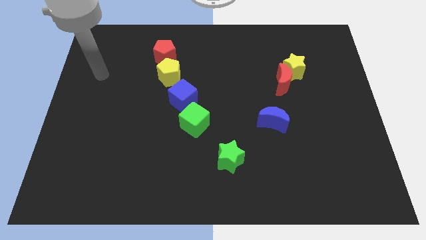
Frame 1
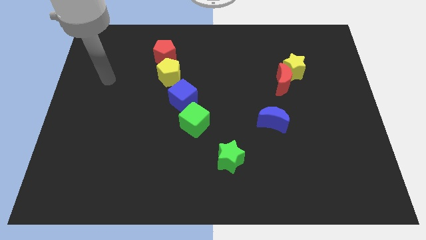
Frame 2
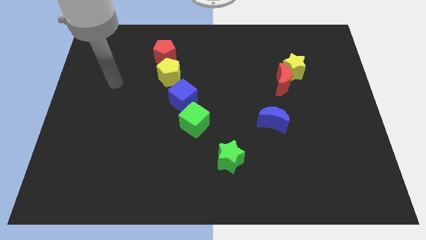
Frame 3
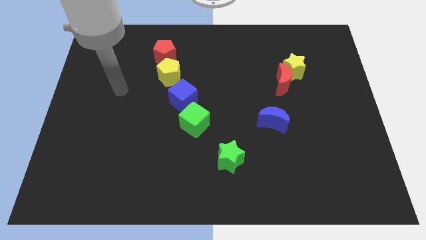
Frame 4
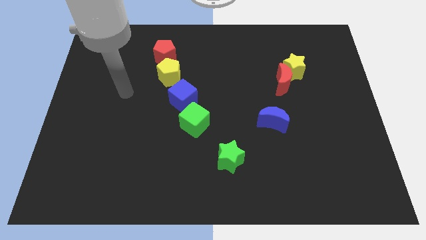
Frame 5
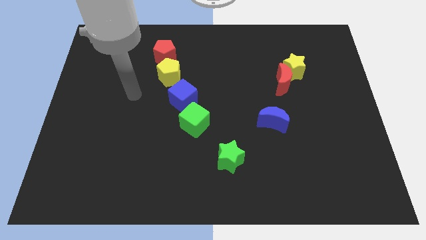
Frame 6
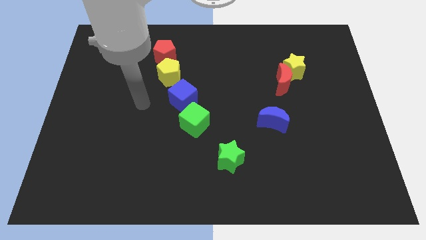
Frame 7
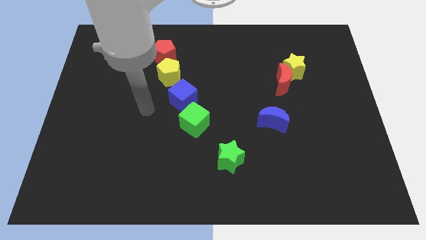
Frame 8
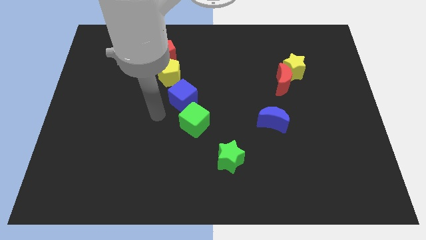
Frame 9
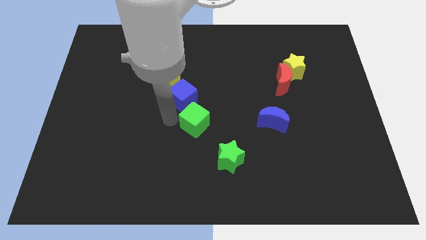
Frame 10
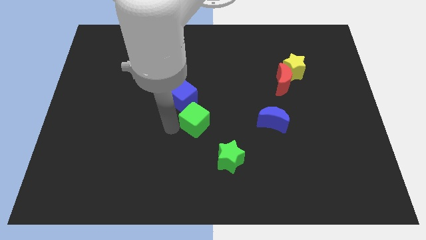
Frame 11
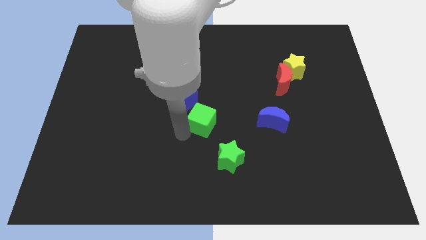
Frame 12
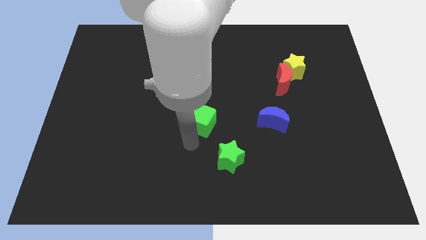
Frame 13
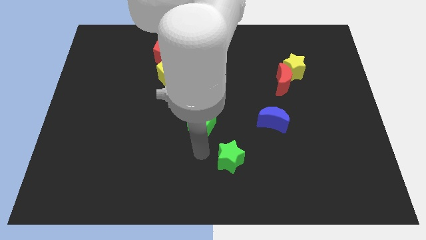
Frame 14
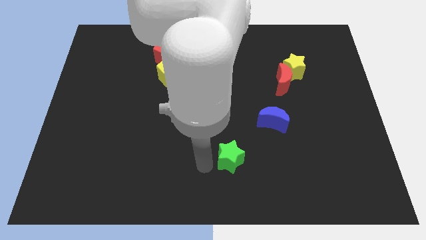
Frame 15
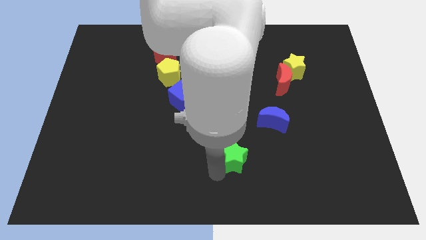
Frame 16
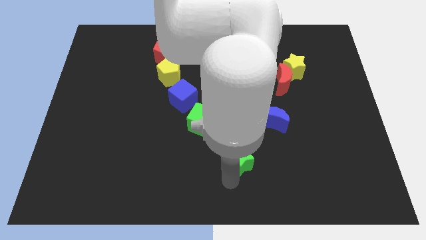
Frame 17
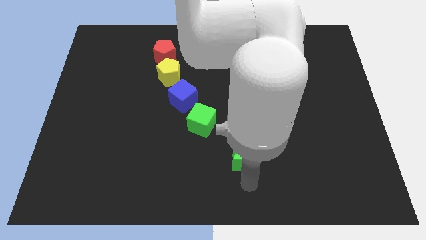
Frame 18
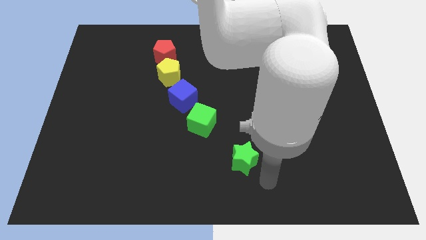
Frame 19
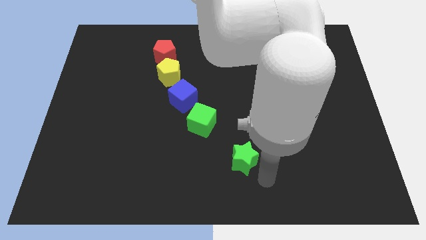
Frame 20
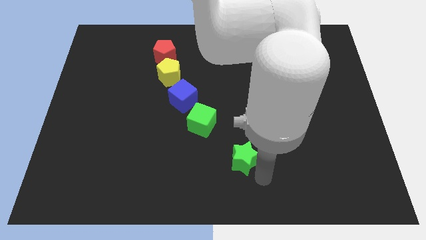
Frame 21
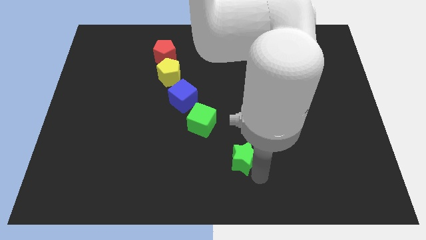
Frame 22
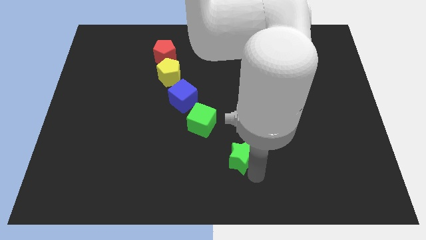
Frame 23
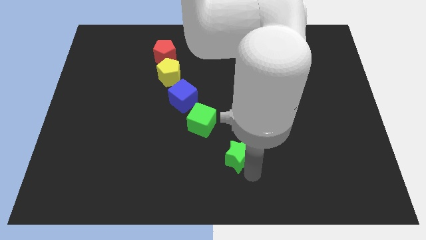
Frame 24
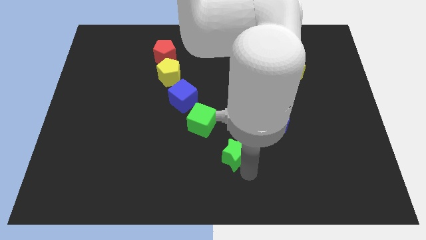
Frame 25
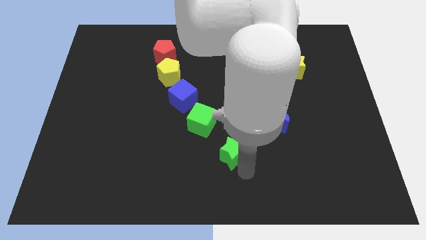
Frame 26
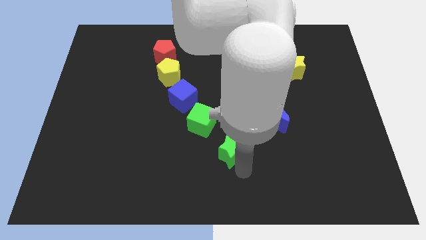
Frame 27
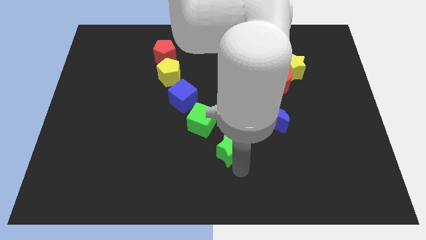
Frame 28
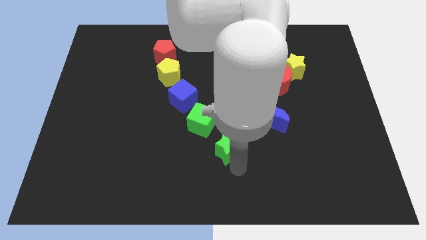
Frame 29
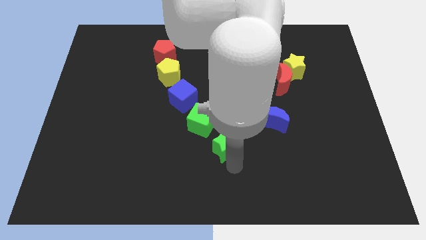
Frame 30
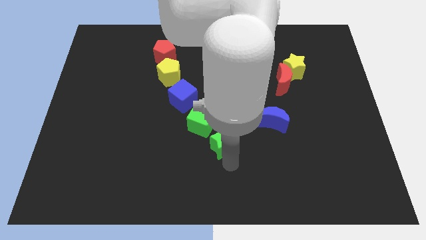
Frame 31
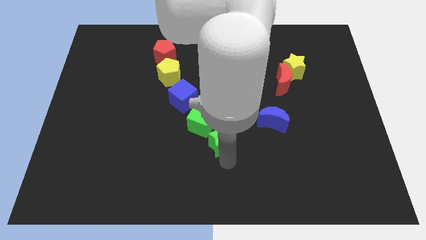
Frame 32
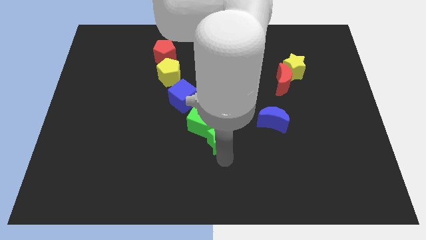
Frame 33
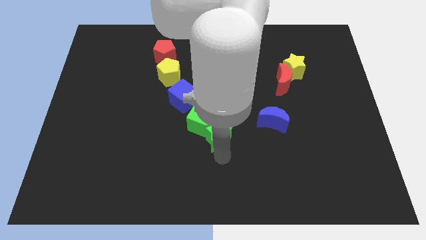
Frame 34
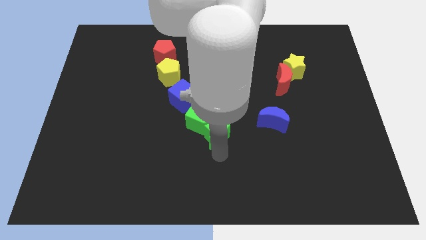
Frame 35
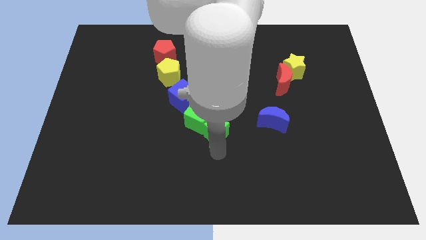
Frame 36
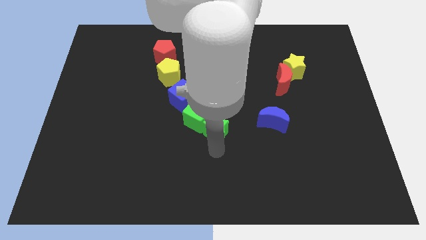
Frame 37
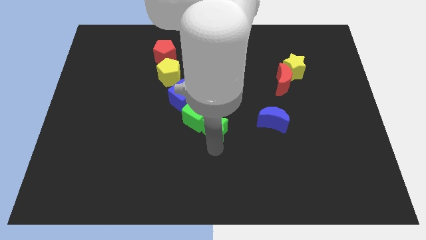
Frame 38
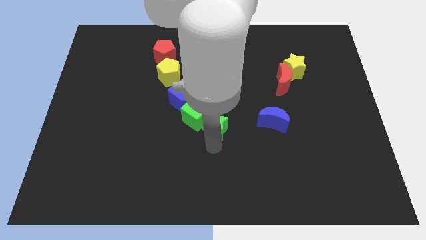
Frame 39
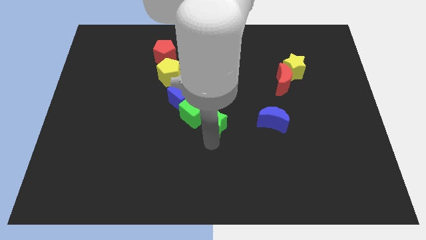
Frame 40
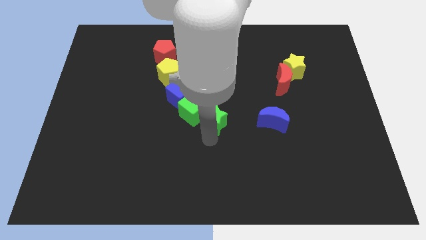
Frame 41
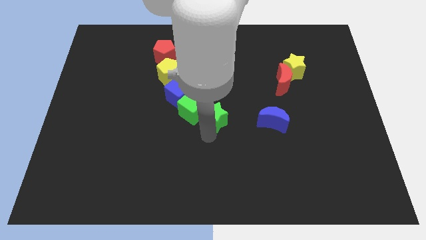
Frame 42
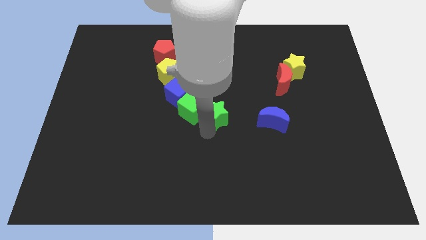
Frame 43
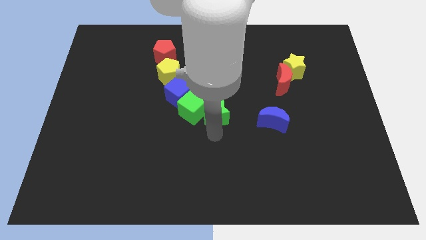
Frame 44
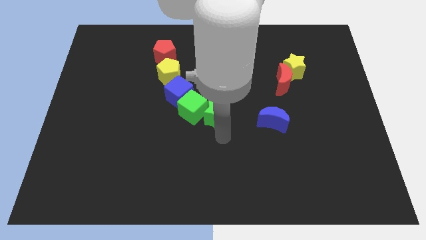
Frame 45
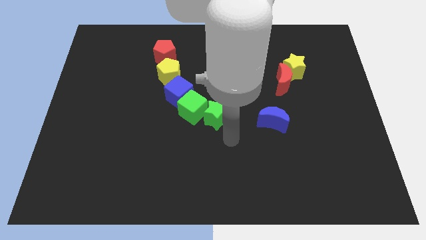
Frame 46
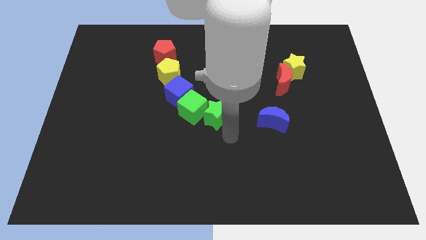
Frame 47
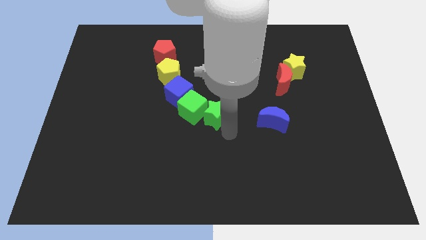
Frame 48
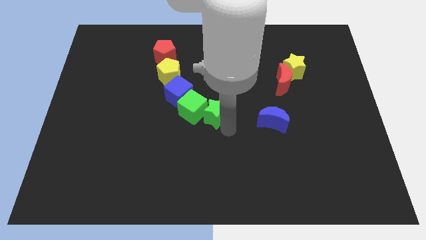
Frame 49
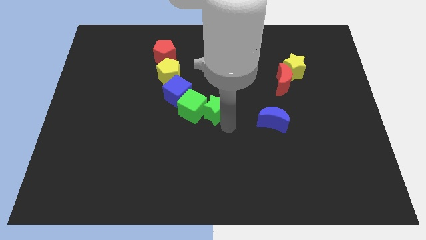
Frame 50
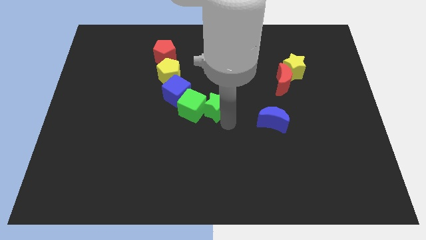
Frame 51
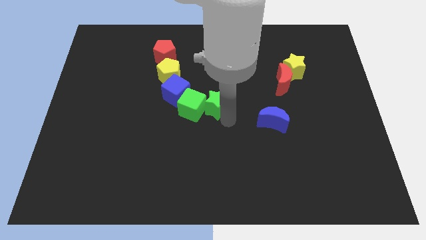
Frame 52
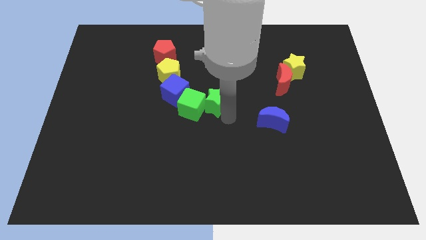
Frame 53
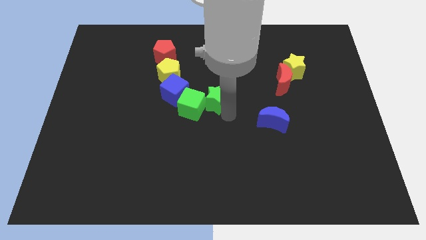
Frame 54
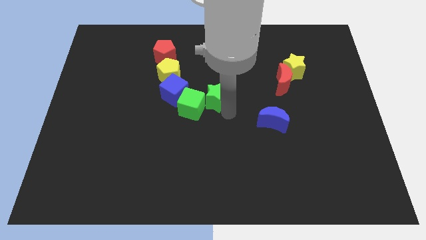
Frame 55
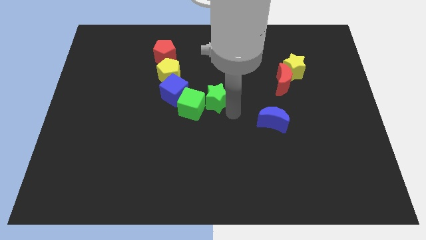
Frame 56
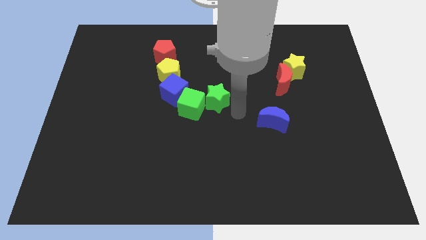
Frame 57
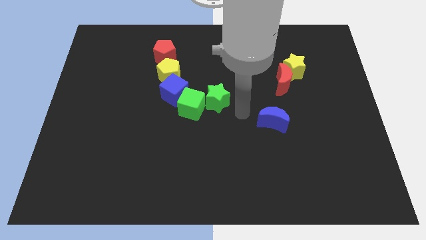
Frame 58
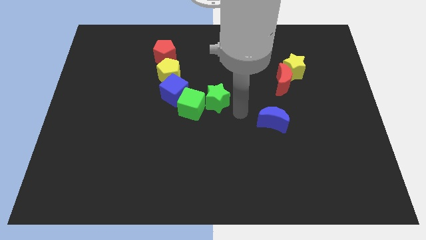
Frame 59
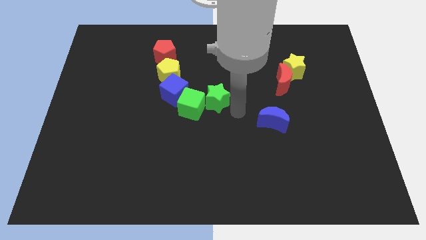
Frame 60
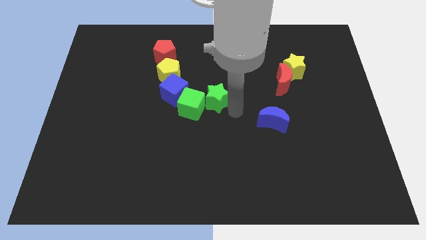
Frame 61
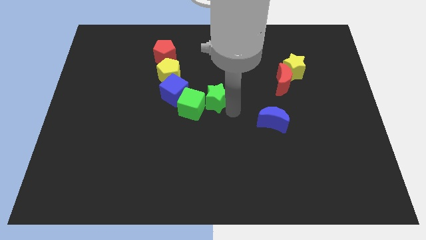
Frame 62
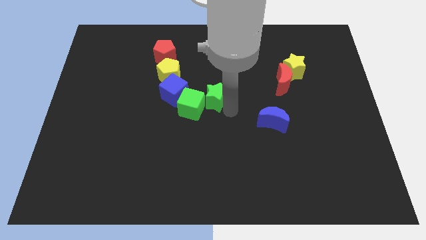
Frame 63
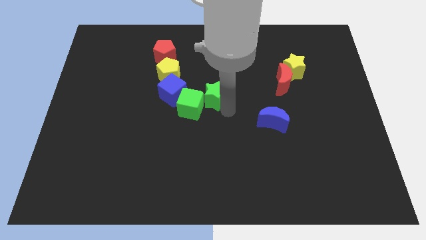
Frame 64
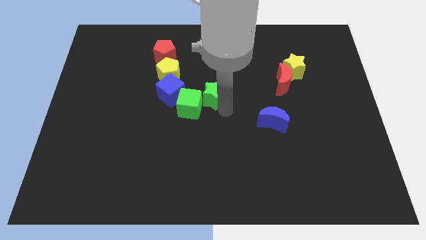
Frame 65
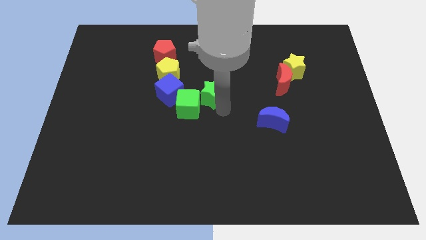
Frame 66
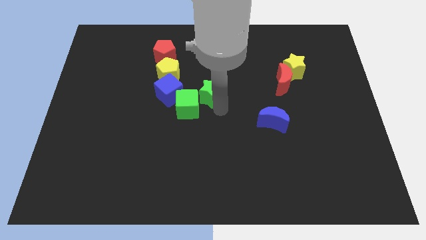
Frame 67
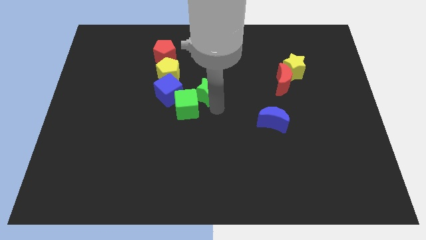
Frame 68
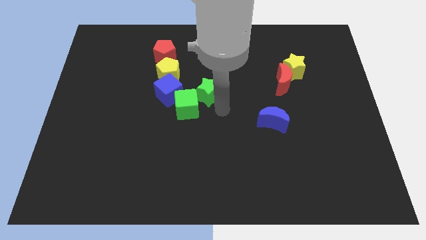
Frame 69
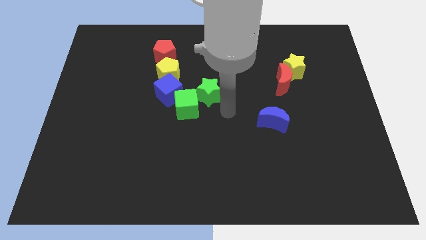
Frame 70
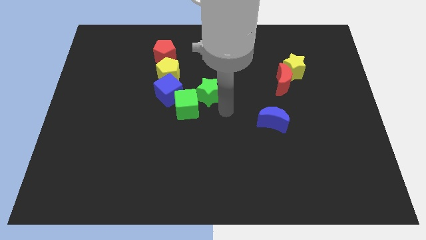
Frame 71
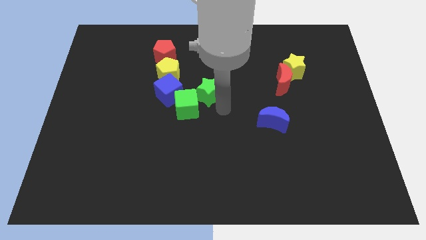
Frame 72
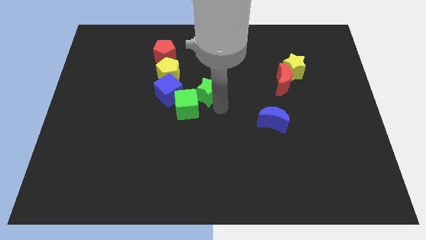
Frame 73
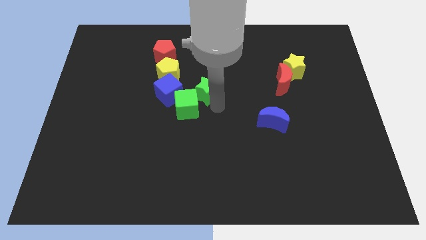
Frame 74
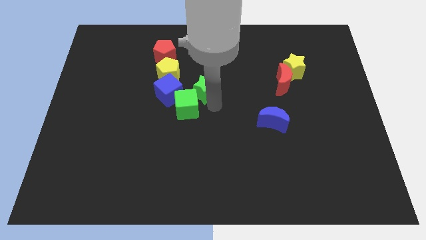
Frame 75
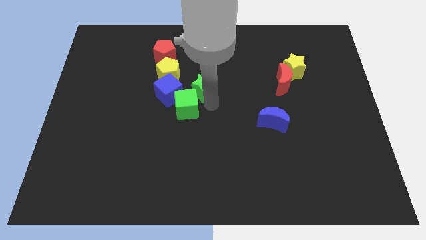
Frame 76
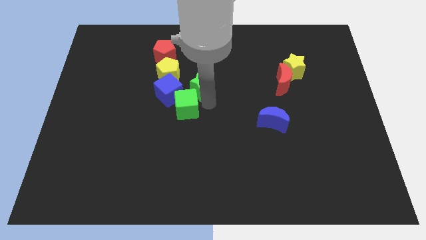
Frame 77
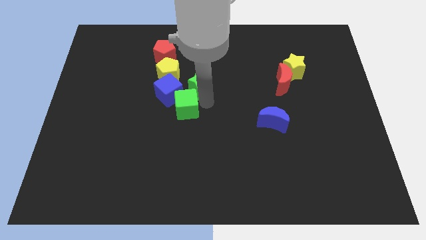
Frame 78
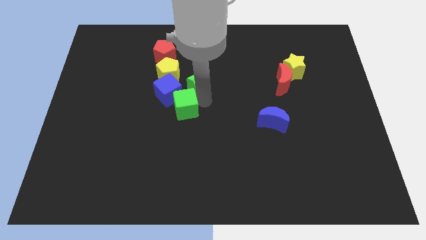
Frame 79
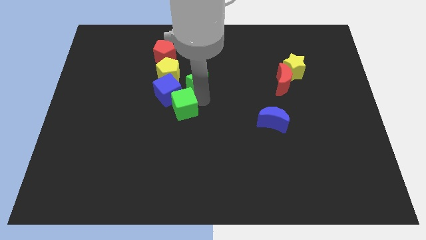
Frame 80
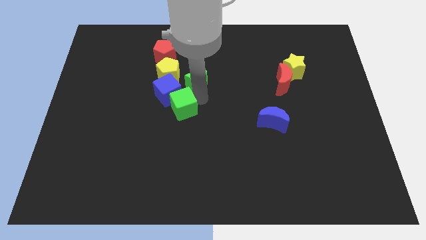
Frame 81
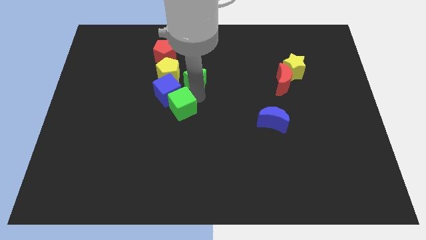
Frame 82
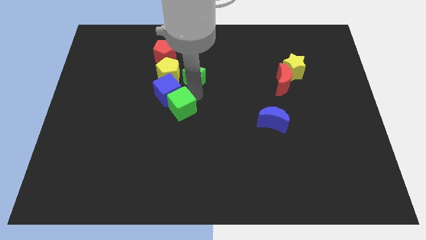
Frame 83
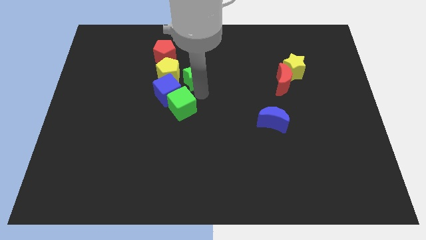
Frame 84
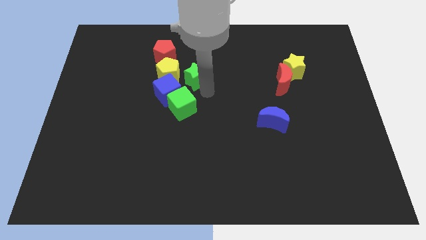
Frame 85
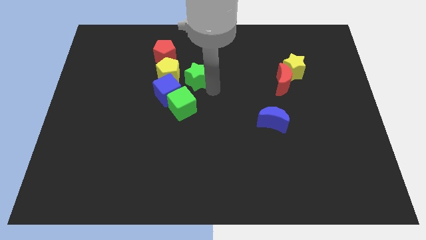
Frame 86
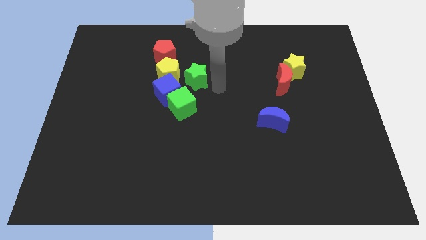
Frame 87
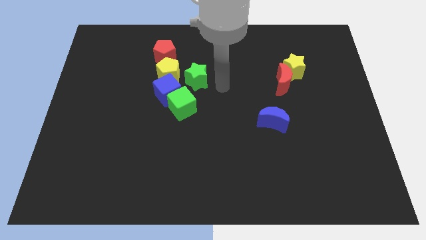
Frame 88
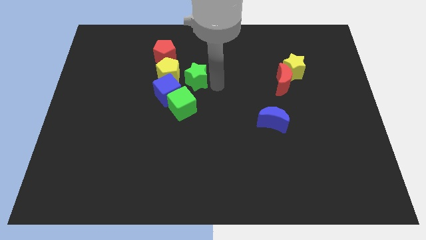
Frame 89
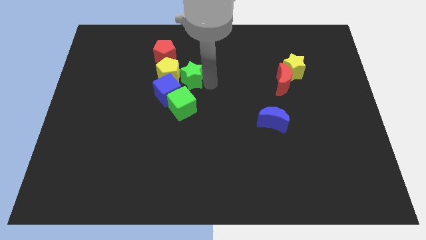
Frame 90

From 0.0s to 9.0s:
put the green star towards the yellow pentagon
